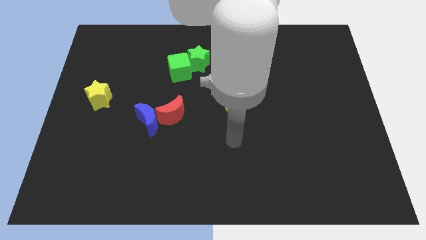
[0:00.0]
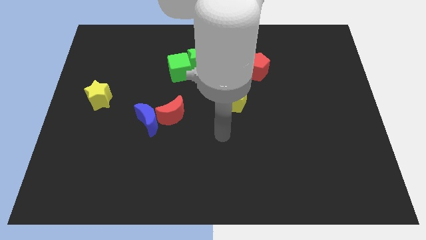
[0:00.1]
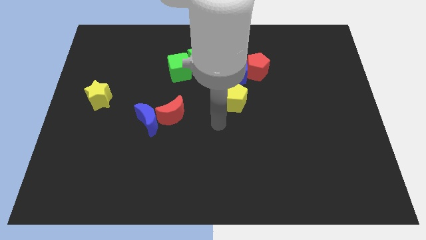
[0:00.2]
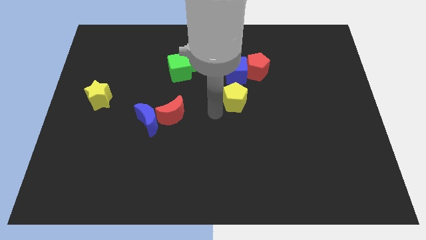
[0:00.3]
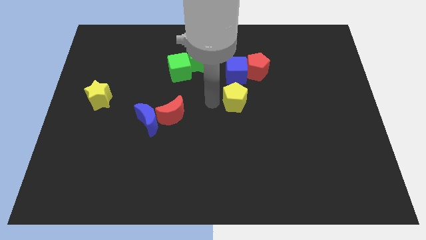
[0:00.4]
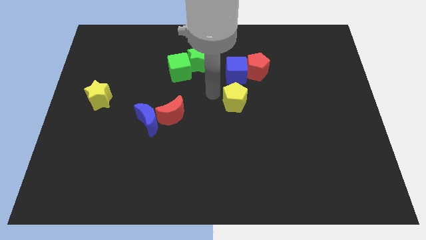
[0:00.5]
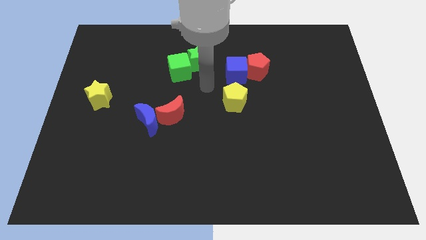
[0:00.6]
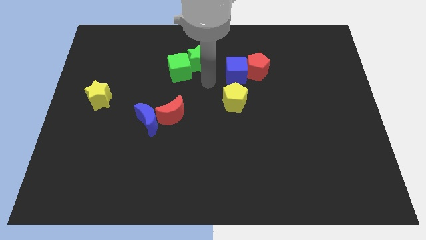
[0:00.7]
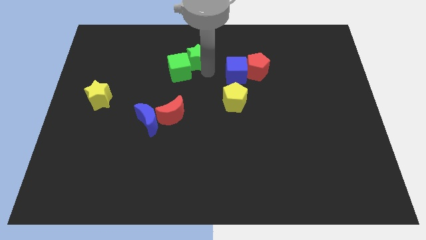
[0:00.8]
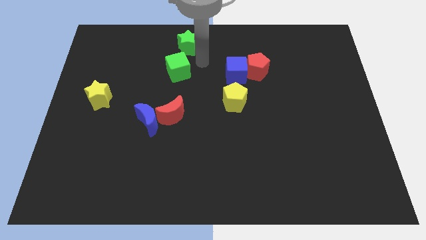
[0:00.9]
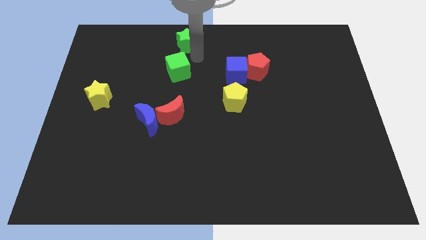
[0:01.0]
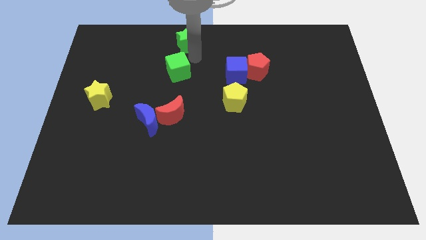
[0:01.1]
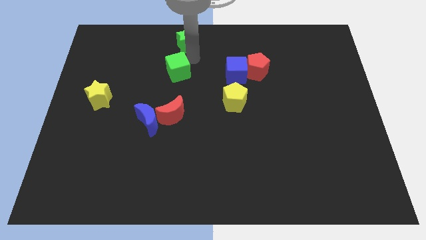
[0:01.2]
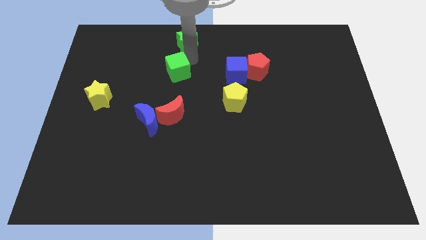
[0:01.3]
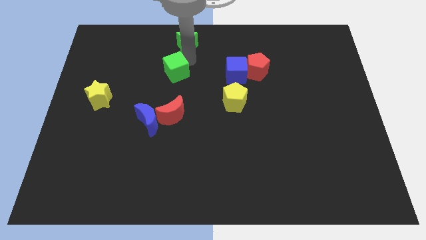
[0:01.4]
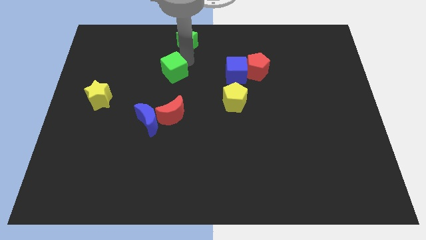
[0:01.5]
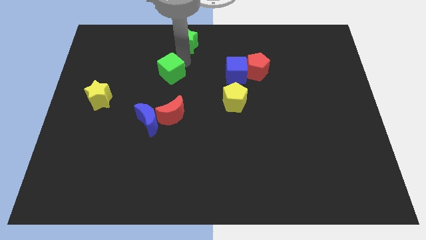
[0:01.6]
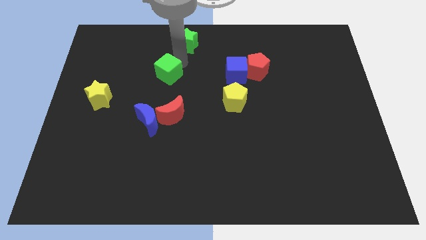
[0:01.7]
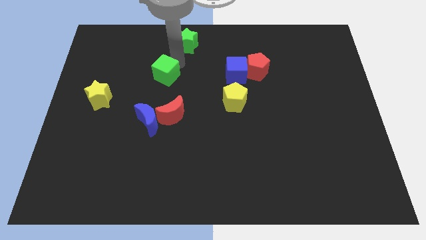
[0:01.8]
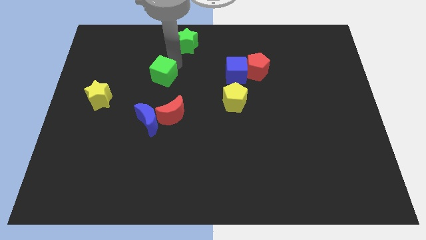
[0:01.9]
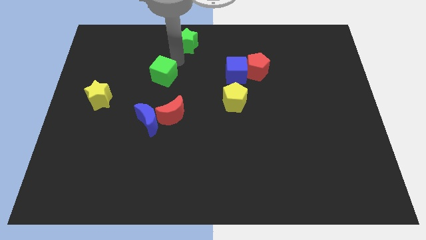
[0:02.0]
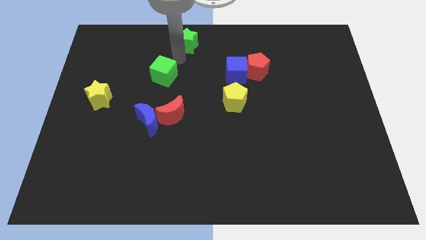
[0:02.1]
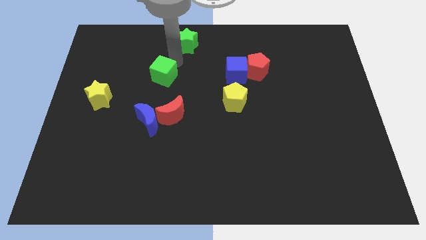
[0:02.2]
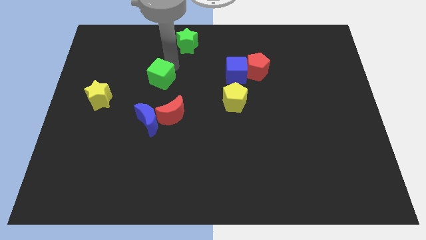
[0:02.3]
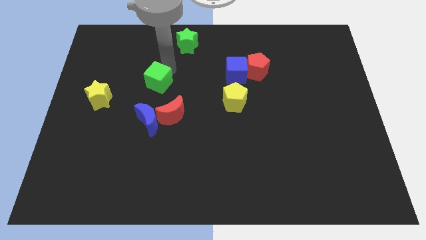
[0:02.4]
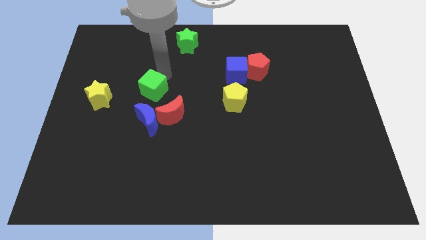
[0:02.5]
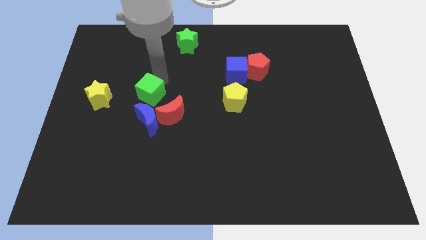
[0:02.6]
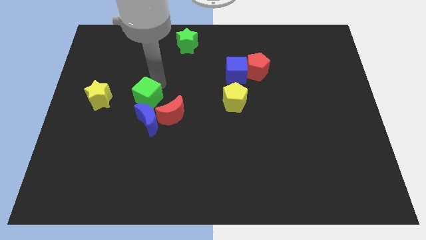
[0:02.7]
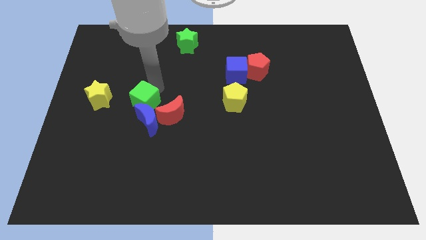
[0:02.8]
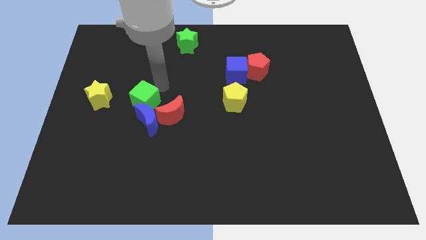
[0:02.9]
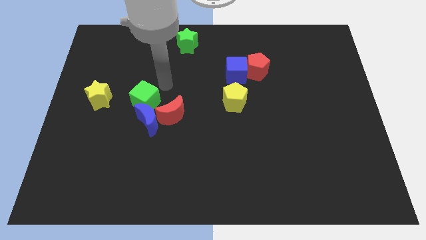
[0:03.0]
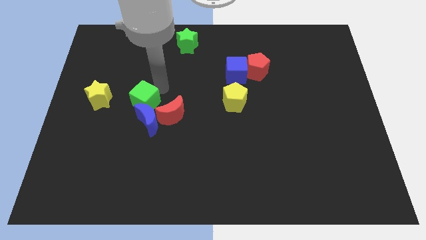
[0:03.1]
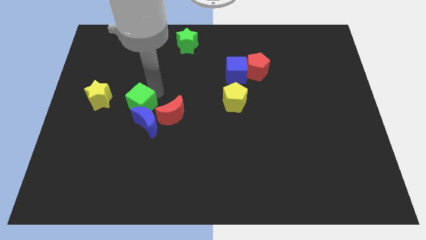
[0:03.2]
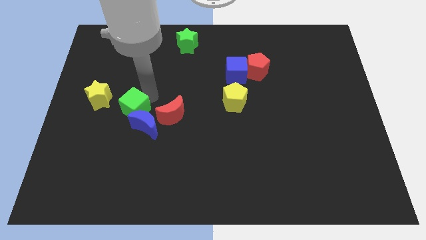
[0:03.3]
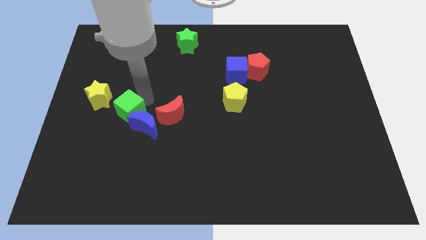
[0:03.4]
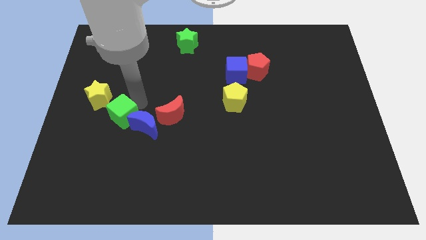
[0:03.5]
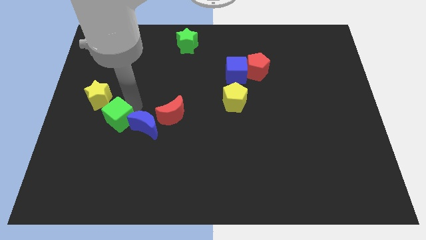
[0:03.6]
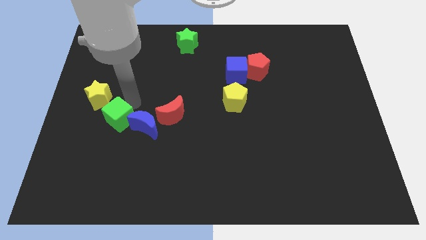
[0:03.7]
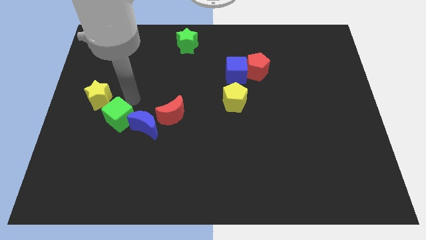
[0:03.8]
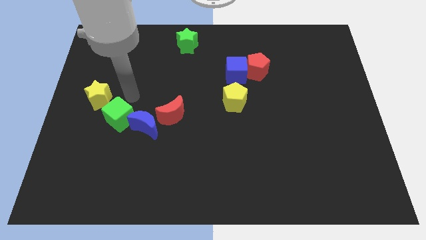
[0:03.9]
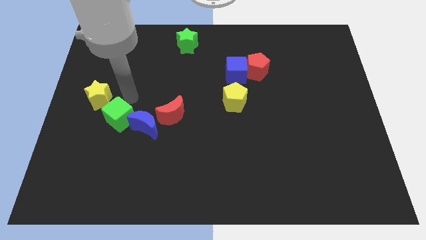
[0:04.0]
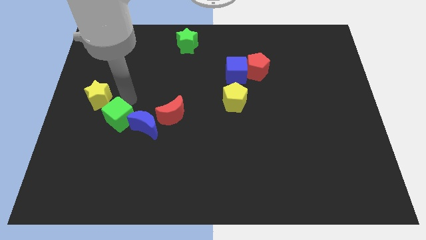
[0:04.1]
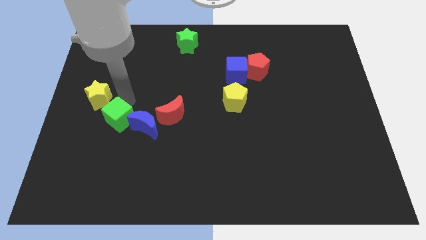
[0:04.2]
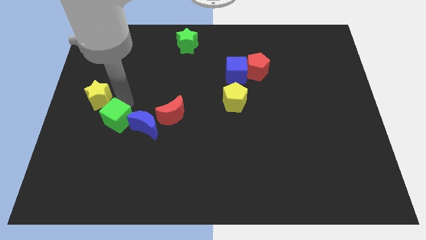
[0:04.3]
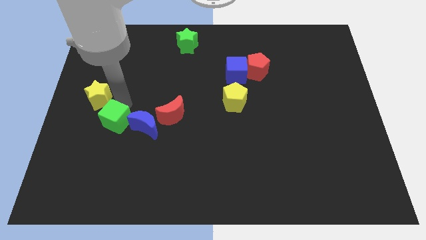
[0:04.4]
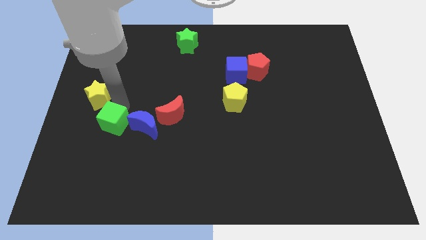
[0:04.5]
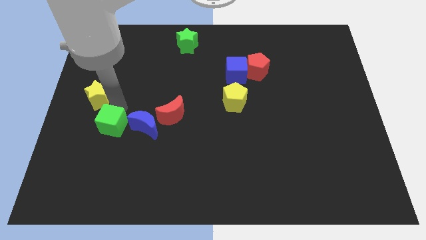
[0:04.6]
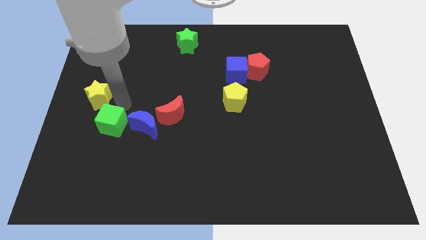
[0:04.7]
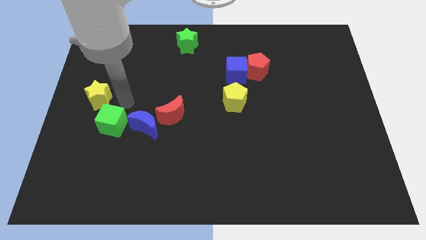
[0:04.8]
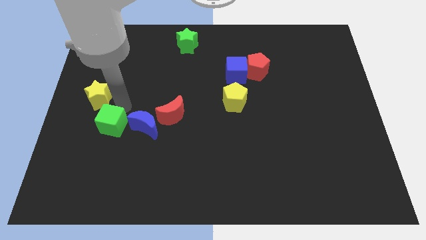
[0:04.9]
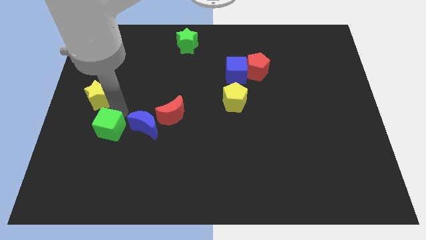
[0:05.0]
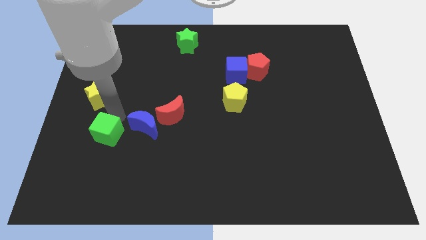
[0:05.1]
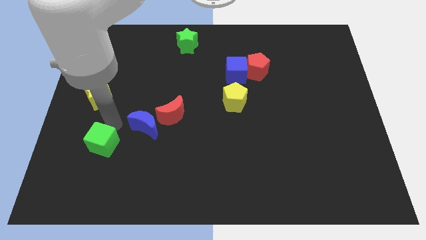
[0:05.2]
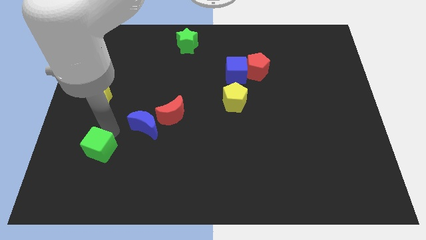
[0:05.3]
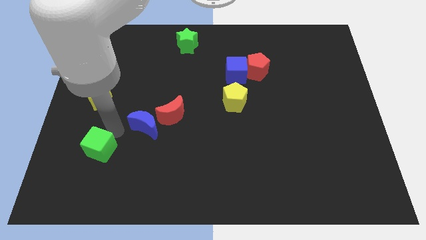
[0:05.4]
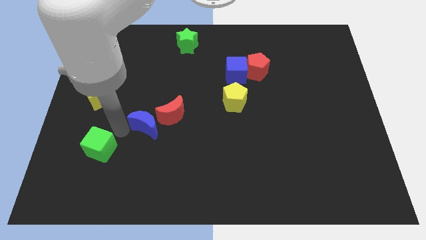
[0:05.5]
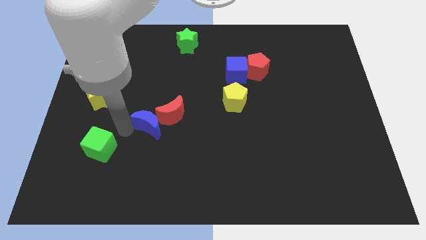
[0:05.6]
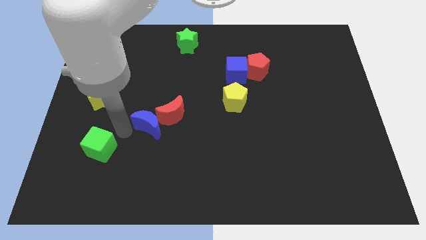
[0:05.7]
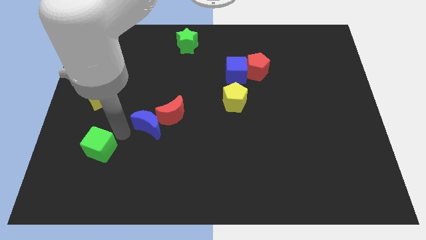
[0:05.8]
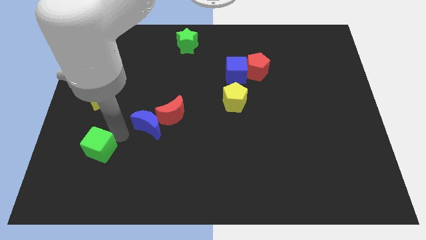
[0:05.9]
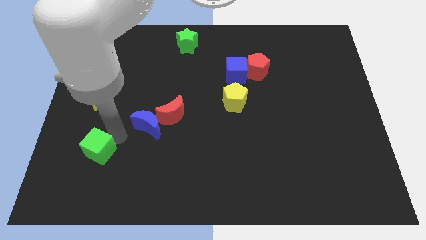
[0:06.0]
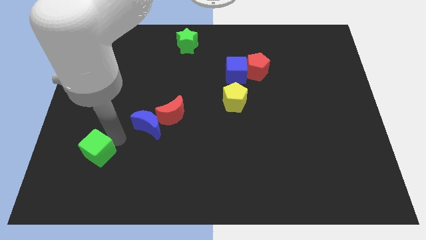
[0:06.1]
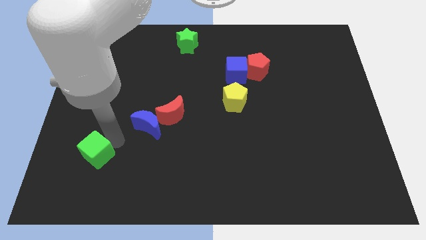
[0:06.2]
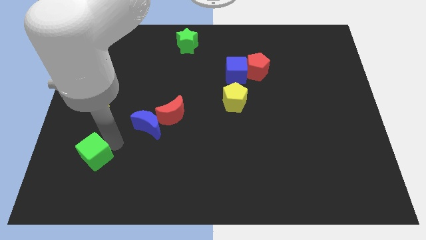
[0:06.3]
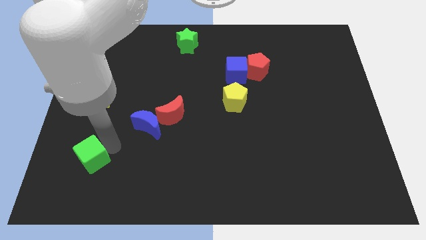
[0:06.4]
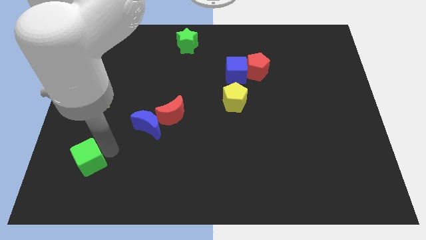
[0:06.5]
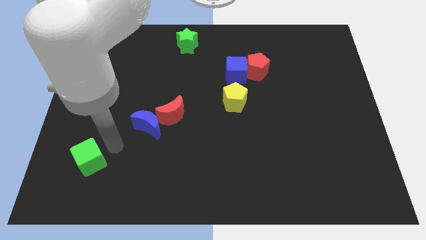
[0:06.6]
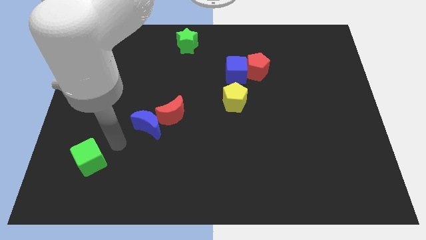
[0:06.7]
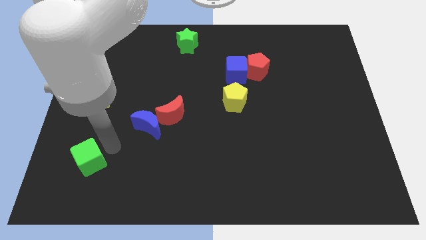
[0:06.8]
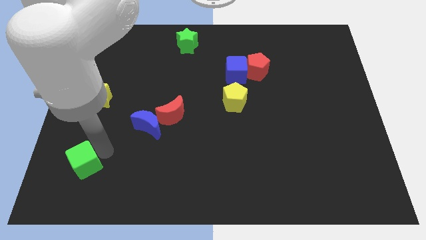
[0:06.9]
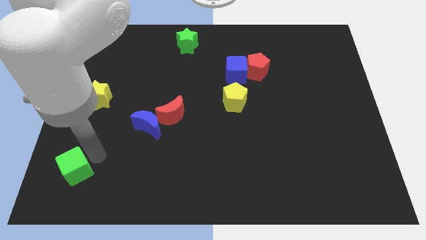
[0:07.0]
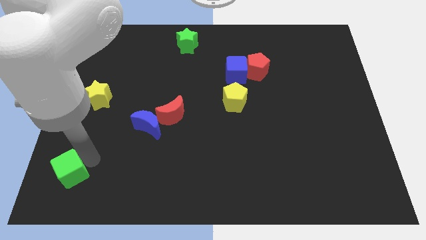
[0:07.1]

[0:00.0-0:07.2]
push the green cube to the bottom left corner
